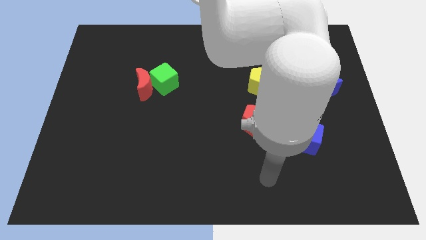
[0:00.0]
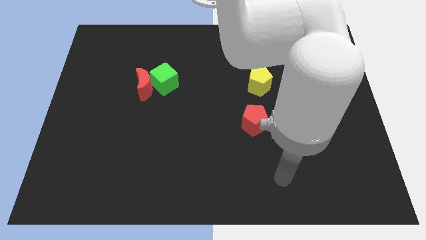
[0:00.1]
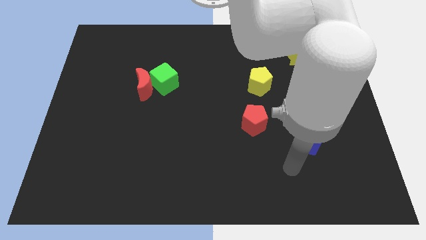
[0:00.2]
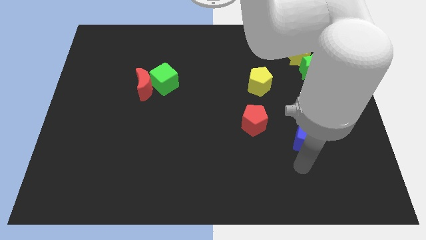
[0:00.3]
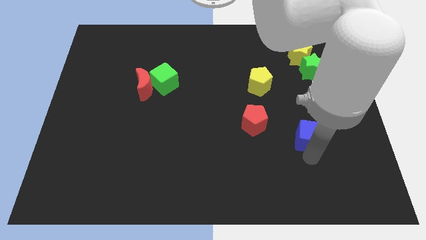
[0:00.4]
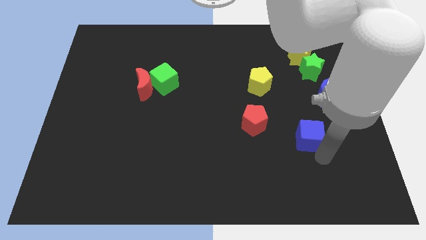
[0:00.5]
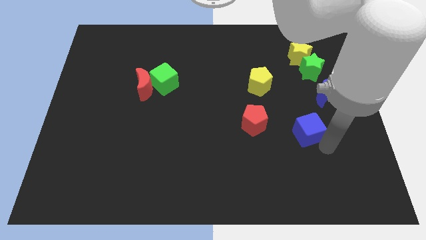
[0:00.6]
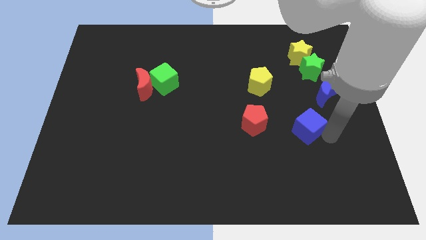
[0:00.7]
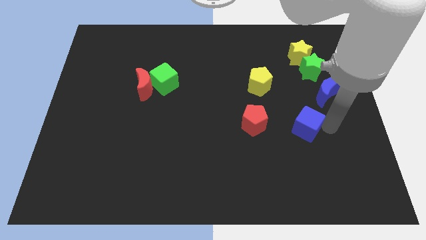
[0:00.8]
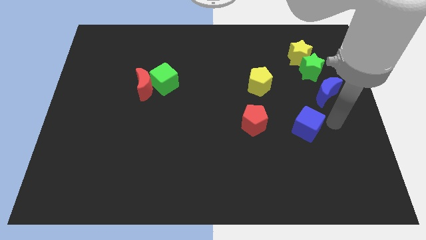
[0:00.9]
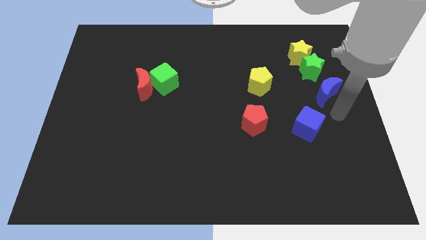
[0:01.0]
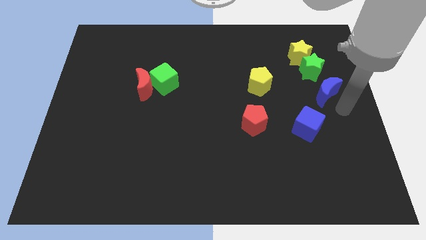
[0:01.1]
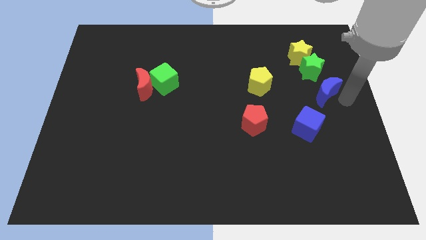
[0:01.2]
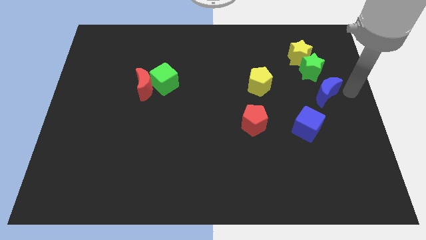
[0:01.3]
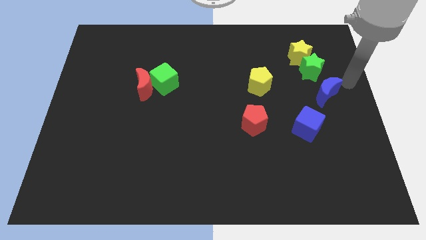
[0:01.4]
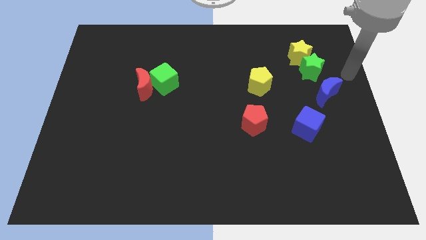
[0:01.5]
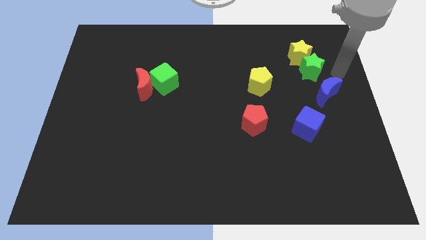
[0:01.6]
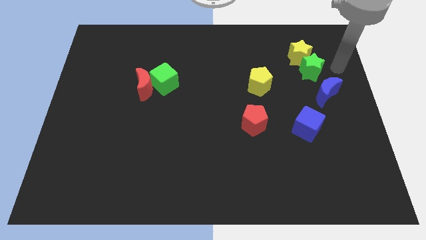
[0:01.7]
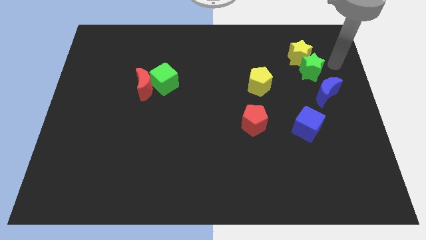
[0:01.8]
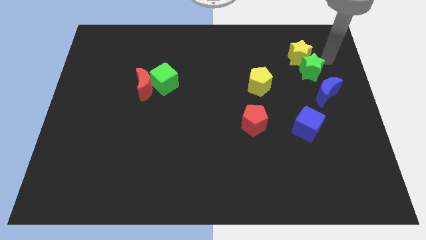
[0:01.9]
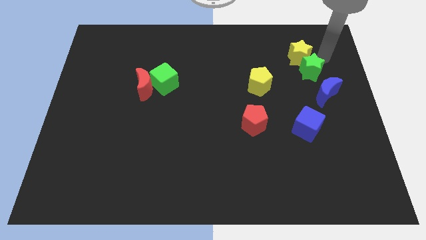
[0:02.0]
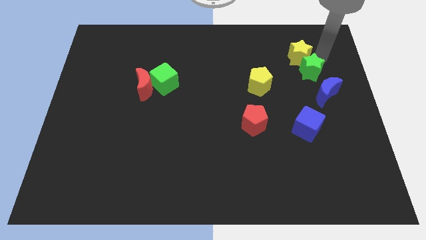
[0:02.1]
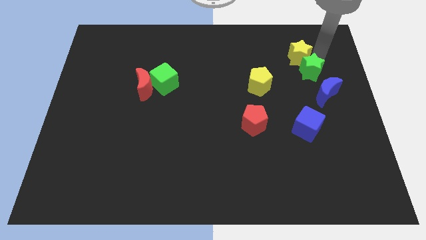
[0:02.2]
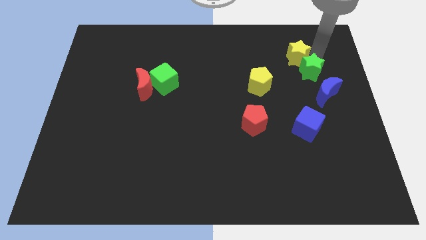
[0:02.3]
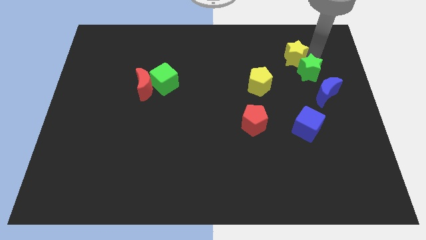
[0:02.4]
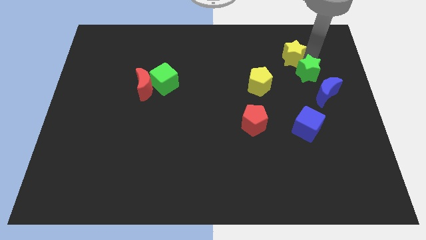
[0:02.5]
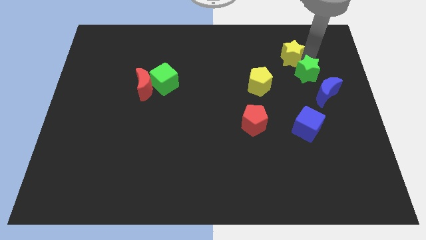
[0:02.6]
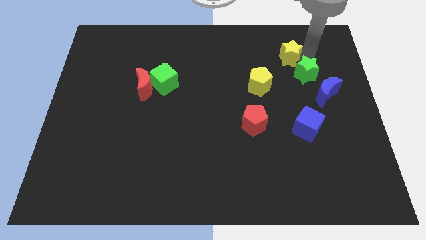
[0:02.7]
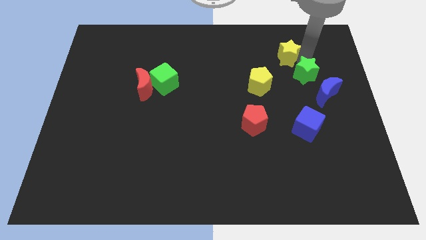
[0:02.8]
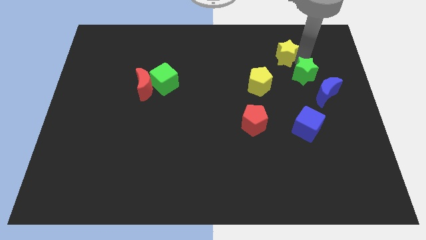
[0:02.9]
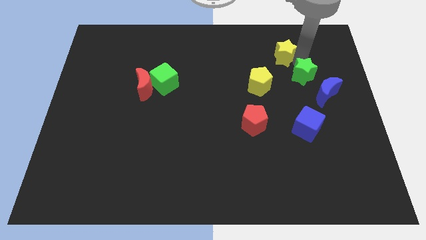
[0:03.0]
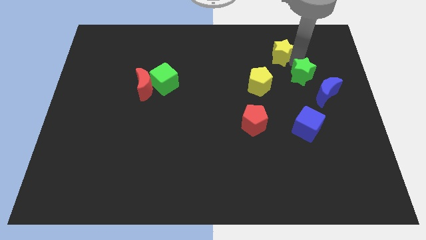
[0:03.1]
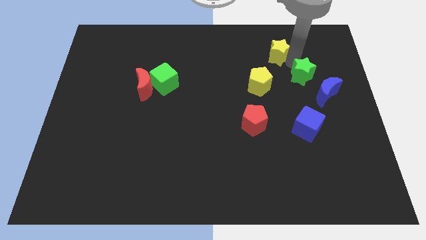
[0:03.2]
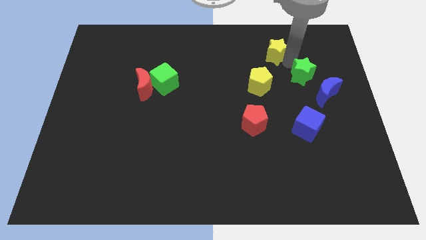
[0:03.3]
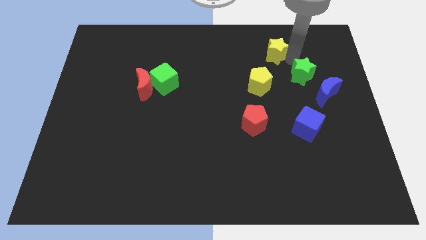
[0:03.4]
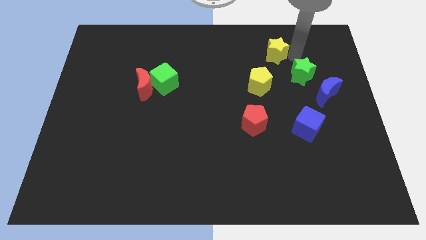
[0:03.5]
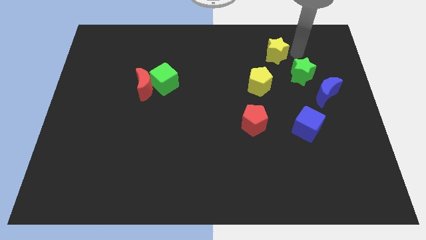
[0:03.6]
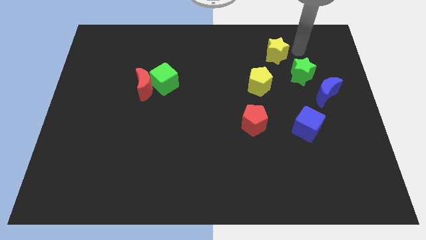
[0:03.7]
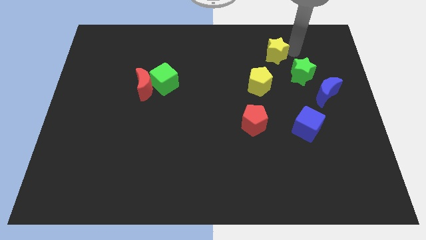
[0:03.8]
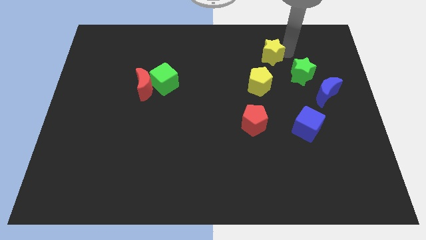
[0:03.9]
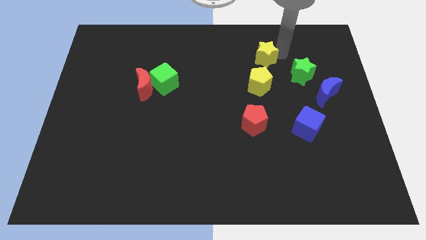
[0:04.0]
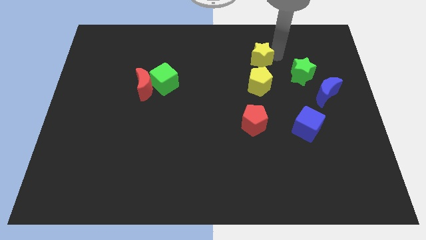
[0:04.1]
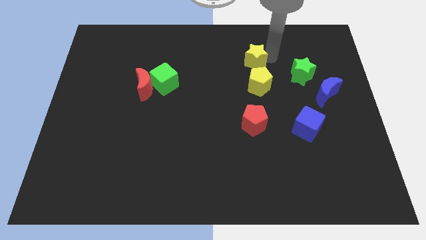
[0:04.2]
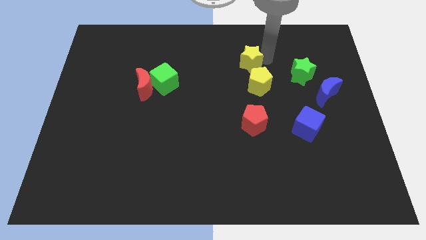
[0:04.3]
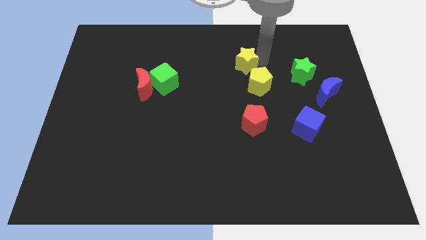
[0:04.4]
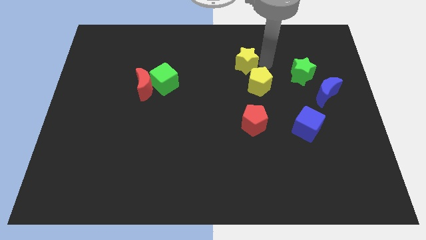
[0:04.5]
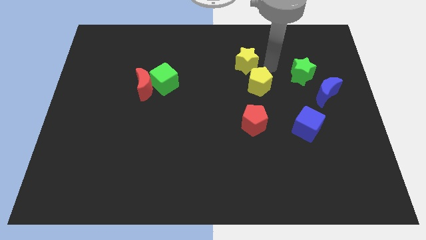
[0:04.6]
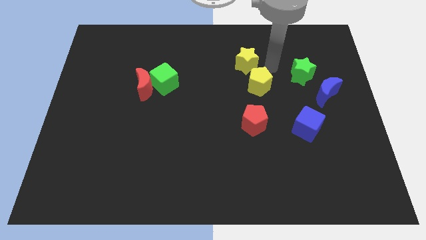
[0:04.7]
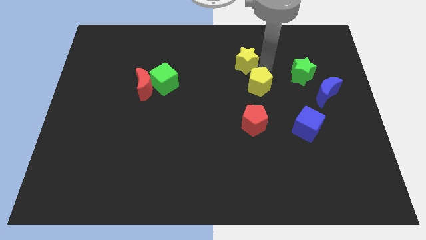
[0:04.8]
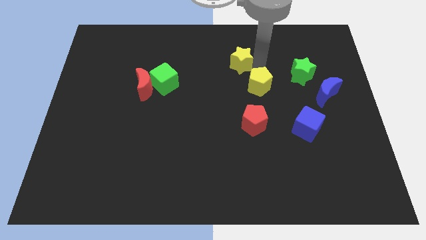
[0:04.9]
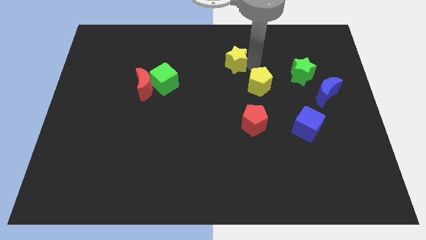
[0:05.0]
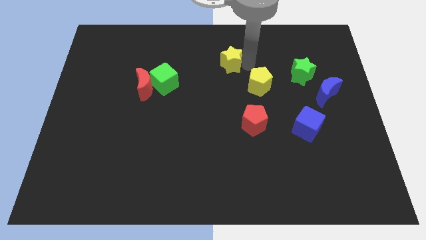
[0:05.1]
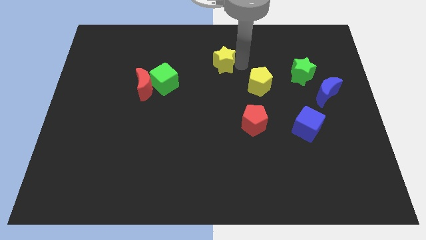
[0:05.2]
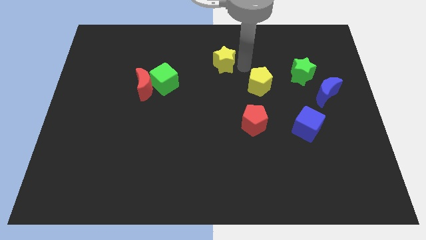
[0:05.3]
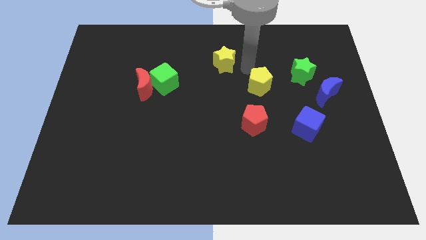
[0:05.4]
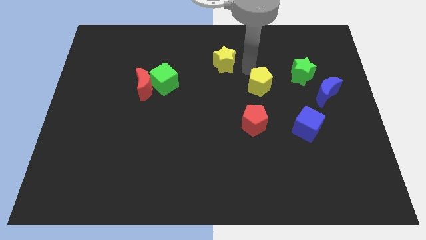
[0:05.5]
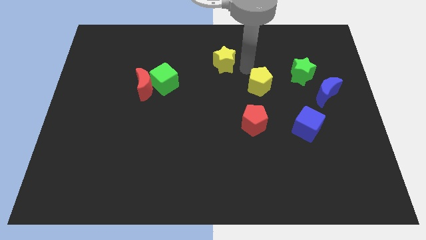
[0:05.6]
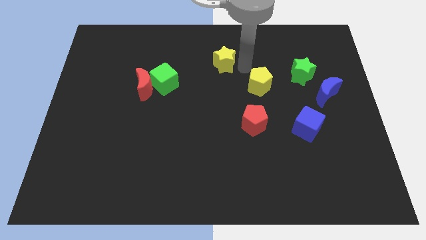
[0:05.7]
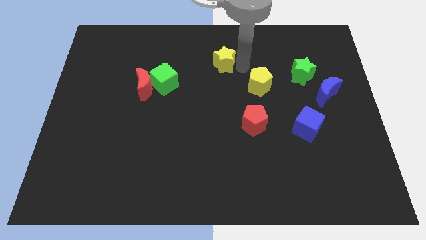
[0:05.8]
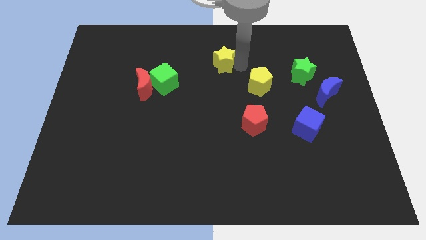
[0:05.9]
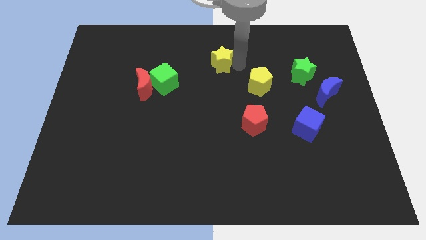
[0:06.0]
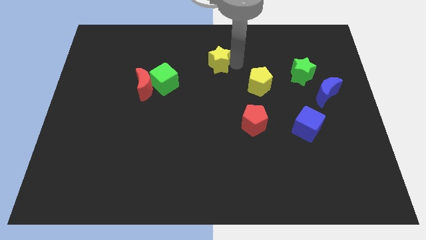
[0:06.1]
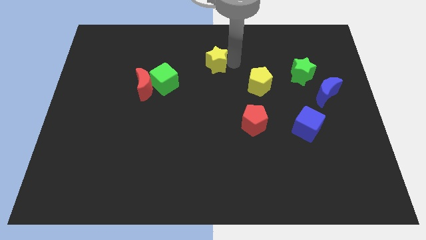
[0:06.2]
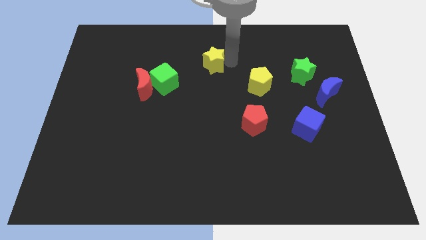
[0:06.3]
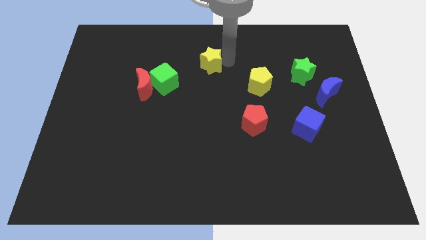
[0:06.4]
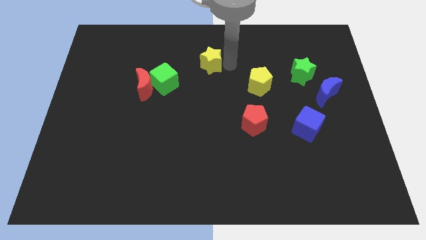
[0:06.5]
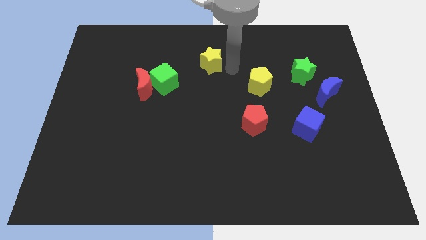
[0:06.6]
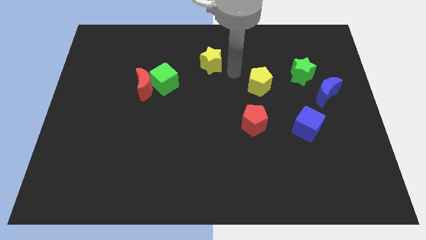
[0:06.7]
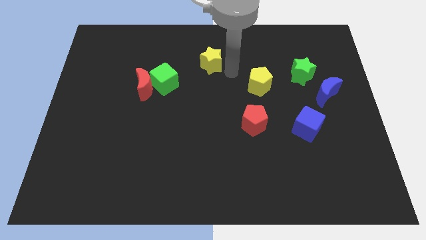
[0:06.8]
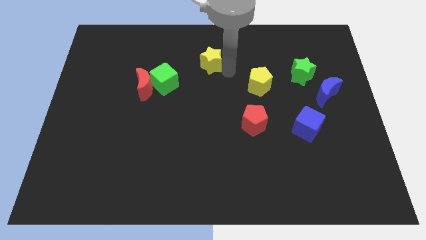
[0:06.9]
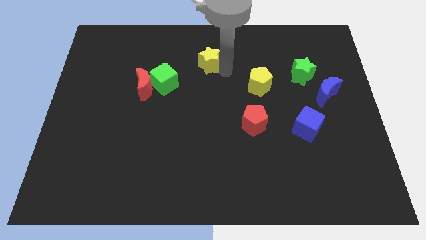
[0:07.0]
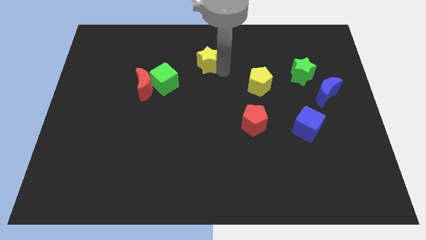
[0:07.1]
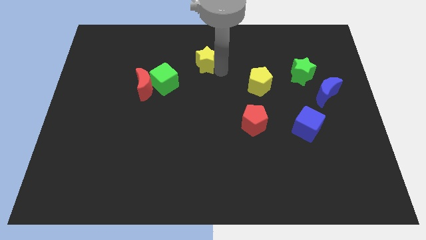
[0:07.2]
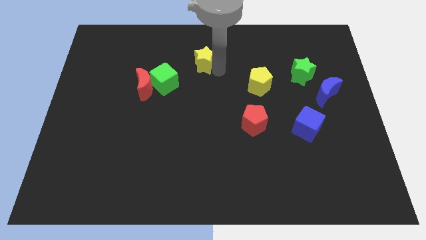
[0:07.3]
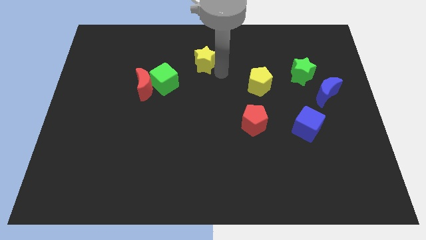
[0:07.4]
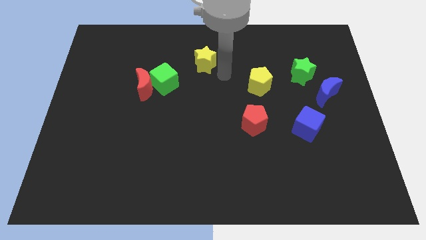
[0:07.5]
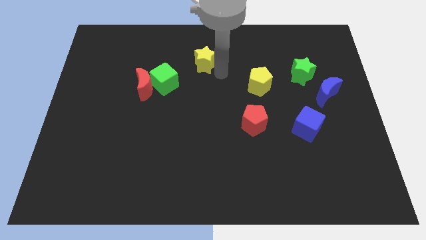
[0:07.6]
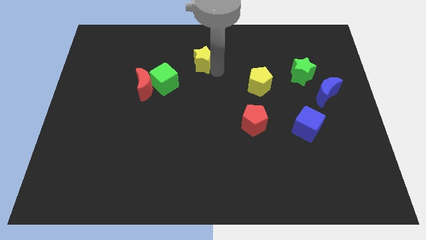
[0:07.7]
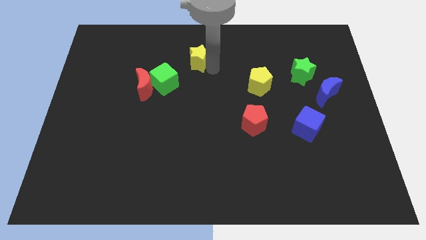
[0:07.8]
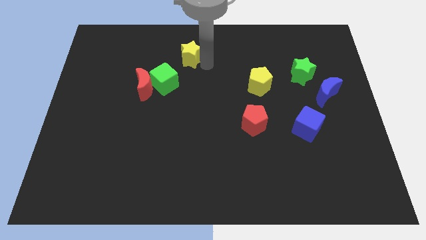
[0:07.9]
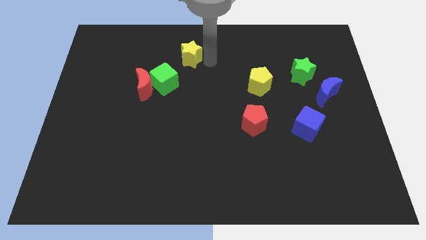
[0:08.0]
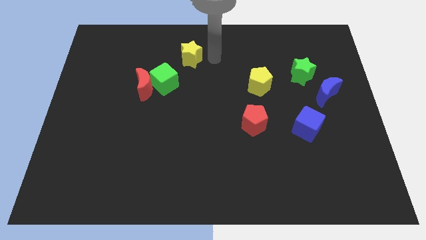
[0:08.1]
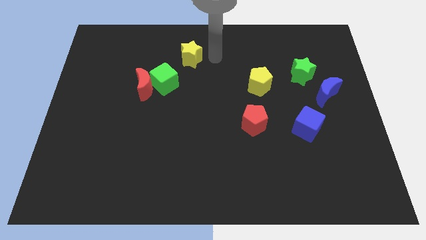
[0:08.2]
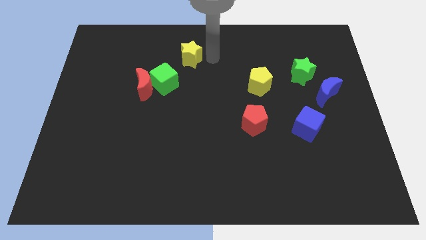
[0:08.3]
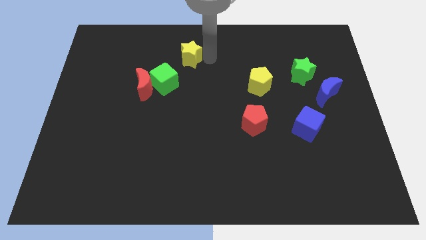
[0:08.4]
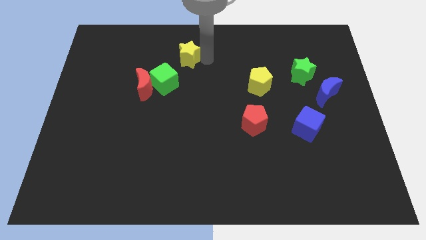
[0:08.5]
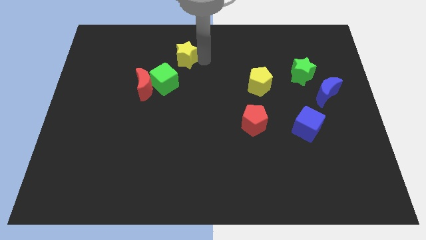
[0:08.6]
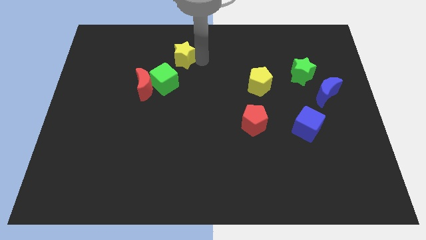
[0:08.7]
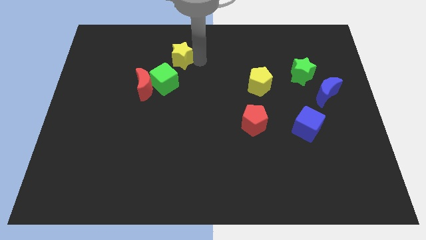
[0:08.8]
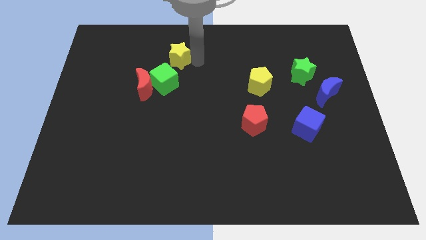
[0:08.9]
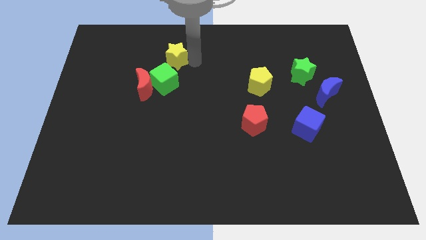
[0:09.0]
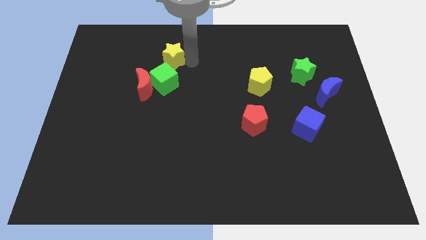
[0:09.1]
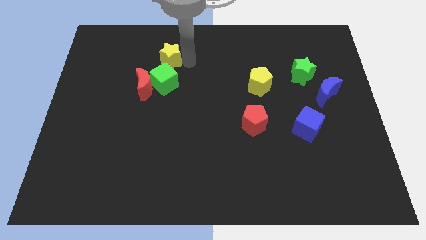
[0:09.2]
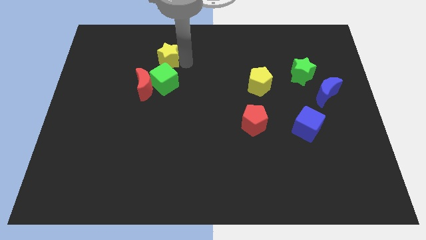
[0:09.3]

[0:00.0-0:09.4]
put the yellow star to the top of the red moon
